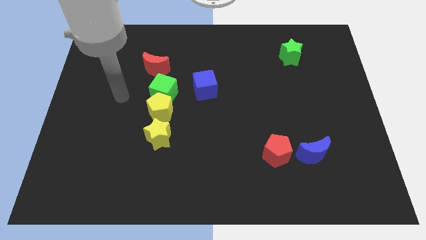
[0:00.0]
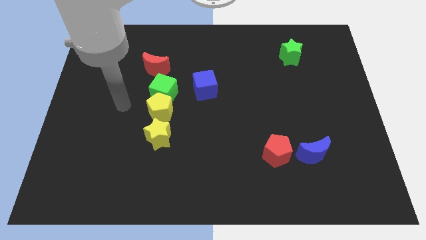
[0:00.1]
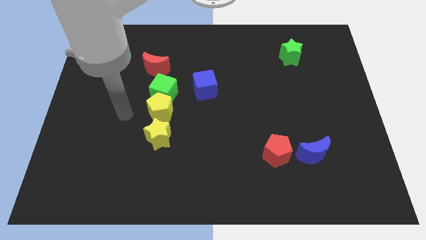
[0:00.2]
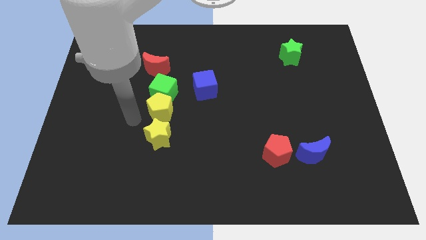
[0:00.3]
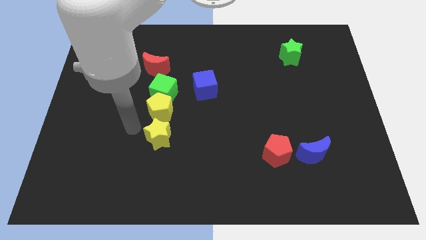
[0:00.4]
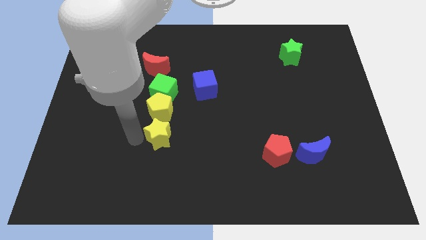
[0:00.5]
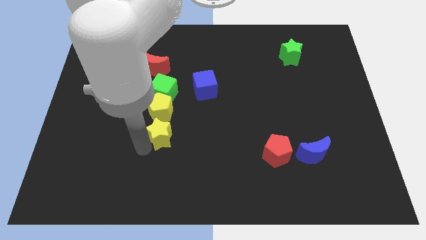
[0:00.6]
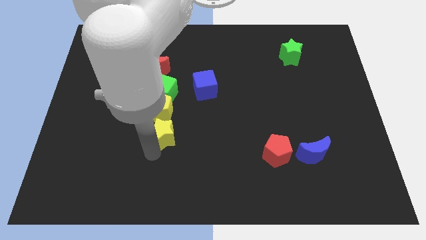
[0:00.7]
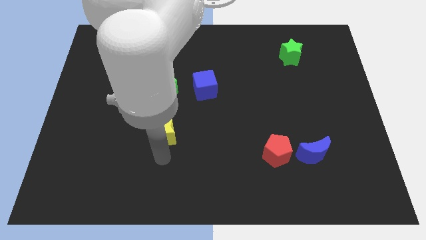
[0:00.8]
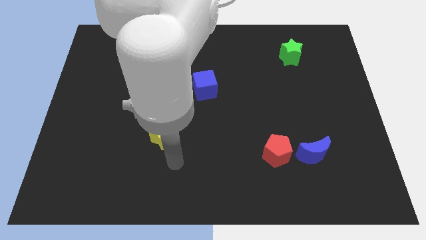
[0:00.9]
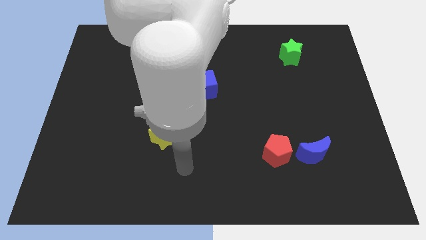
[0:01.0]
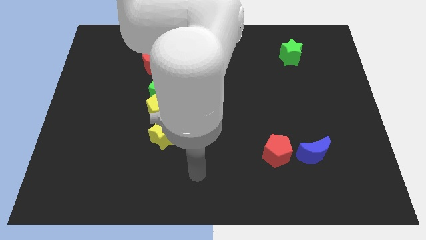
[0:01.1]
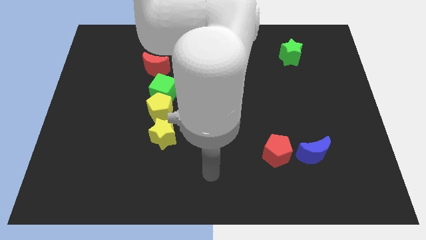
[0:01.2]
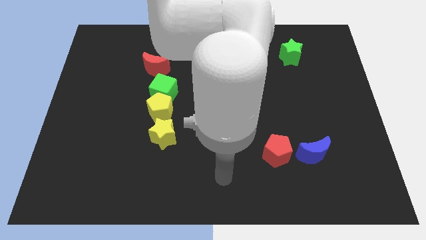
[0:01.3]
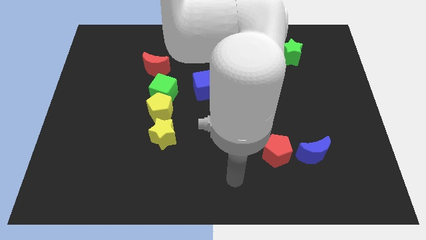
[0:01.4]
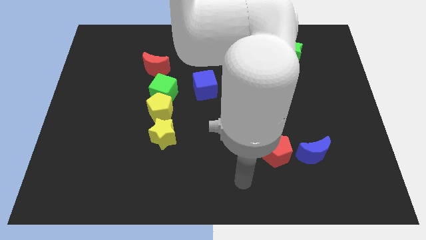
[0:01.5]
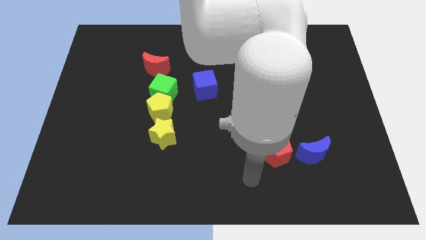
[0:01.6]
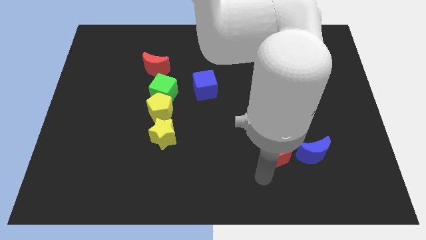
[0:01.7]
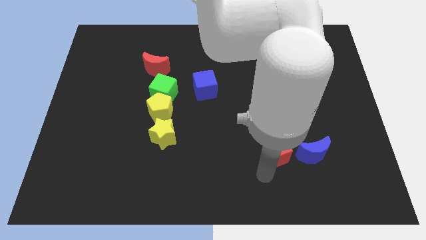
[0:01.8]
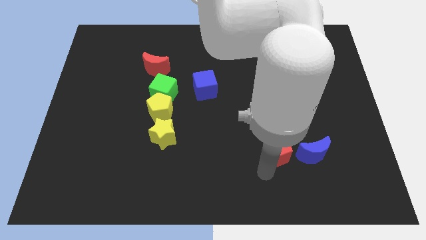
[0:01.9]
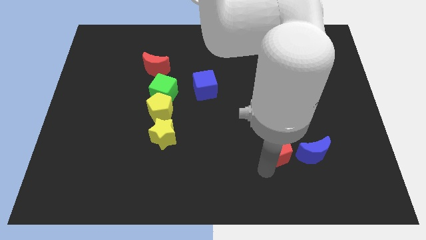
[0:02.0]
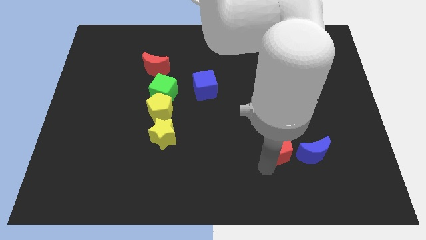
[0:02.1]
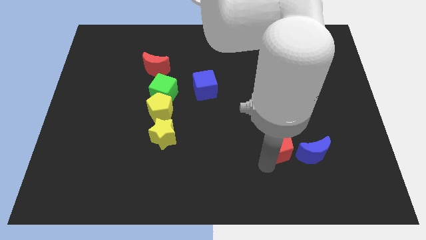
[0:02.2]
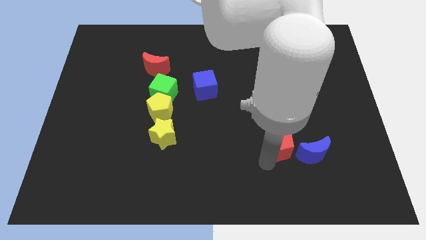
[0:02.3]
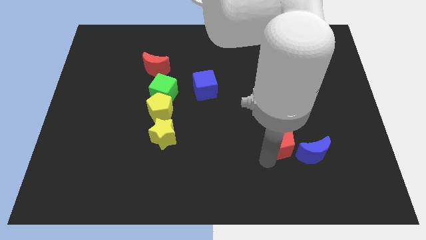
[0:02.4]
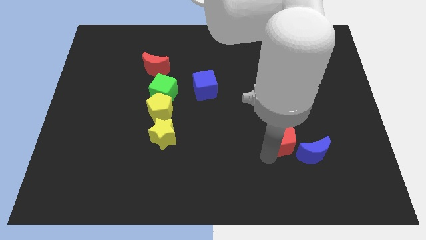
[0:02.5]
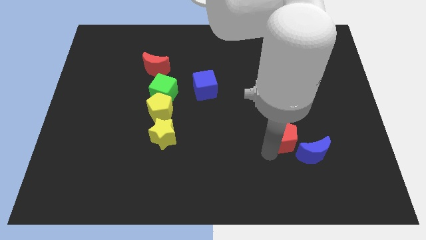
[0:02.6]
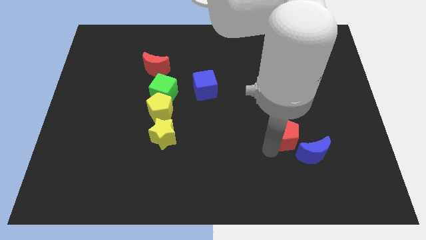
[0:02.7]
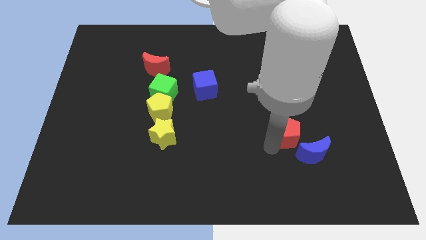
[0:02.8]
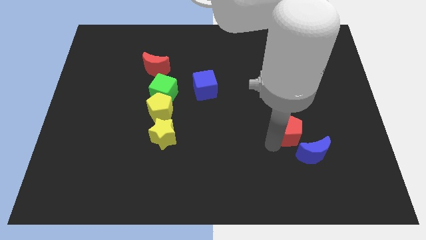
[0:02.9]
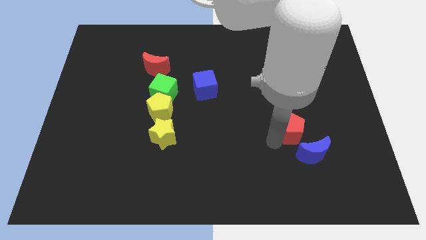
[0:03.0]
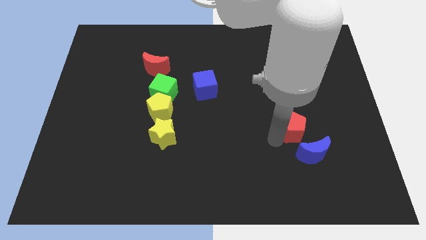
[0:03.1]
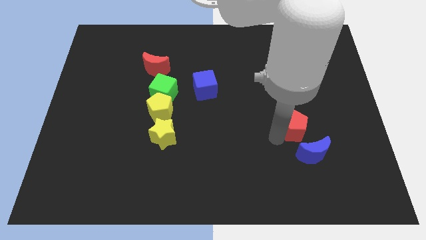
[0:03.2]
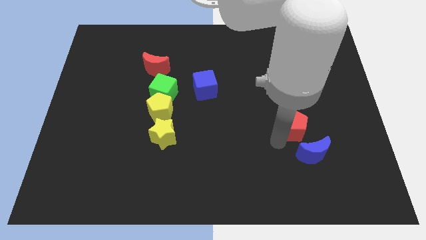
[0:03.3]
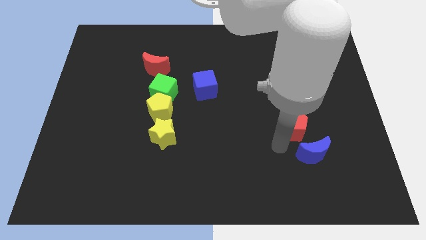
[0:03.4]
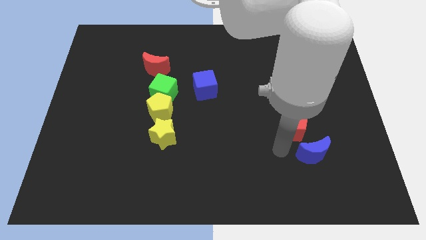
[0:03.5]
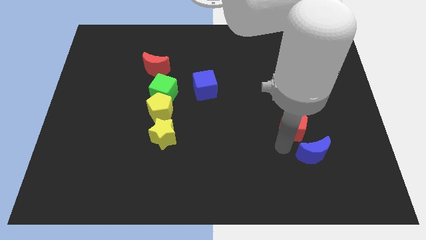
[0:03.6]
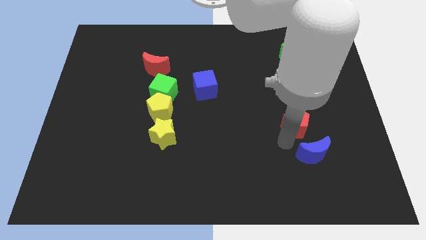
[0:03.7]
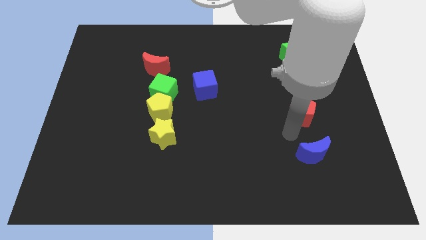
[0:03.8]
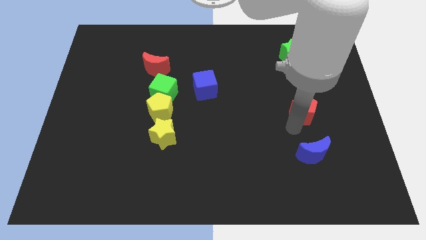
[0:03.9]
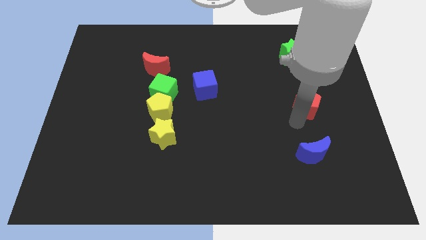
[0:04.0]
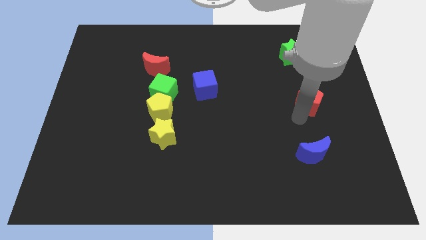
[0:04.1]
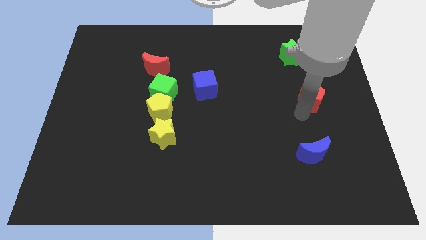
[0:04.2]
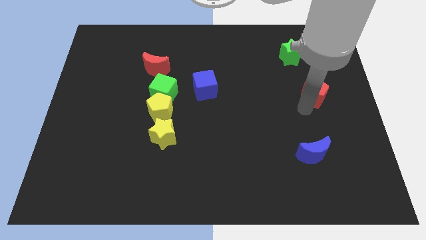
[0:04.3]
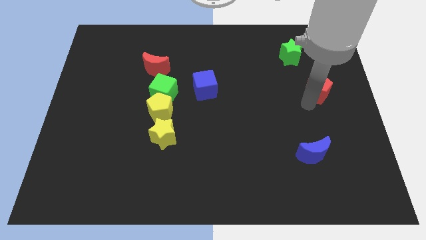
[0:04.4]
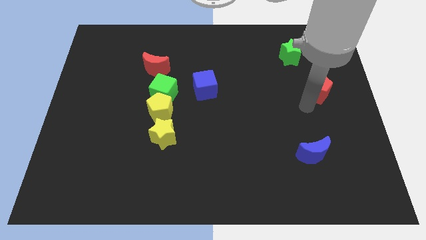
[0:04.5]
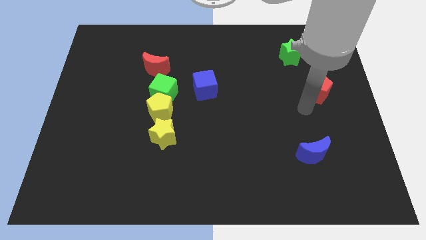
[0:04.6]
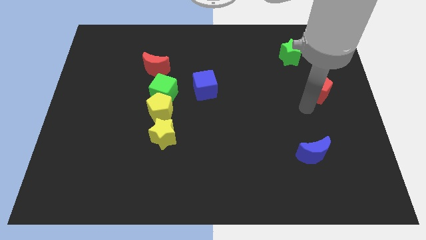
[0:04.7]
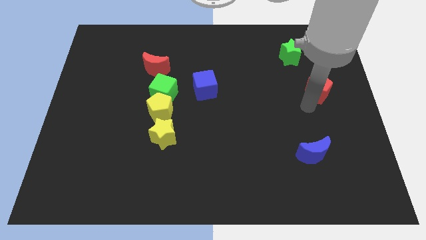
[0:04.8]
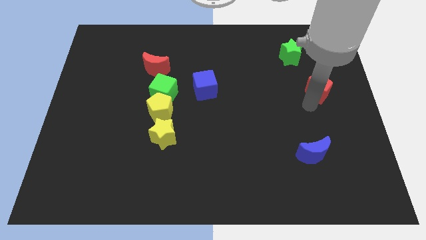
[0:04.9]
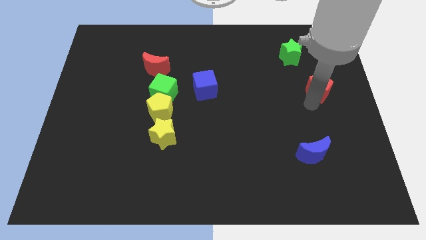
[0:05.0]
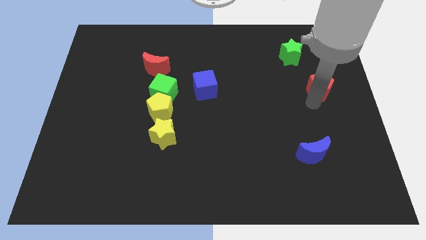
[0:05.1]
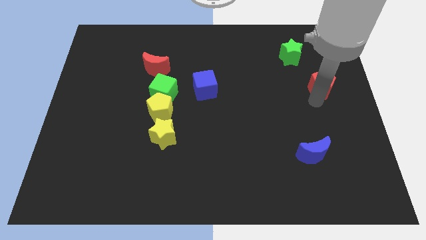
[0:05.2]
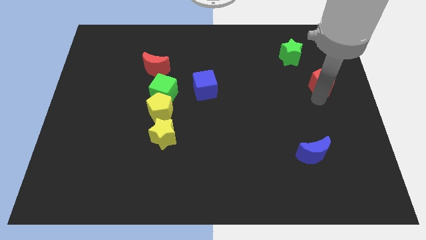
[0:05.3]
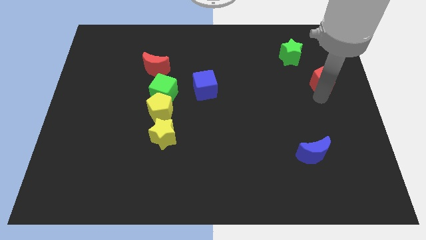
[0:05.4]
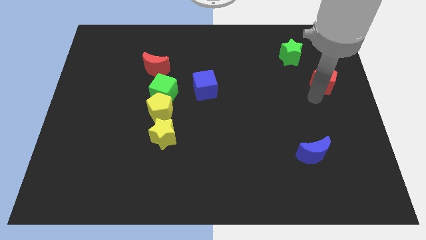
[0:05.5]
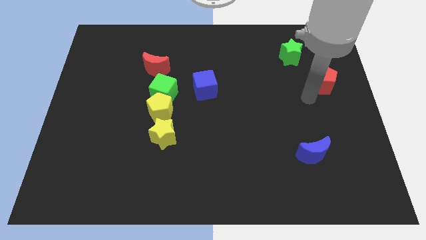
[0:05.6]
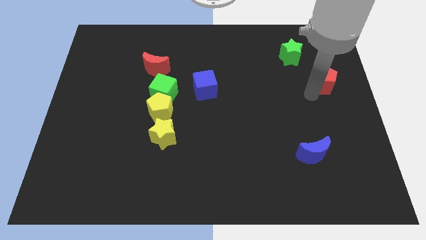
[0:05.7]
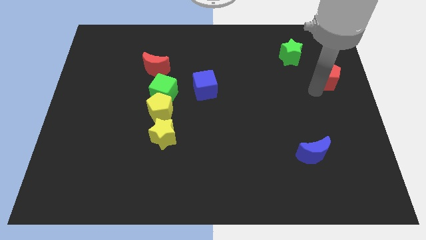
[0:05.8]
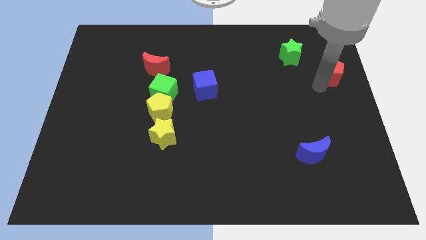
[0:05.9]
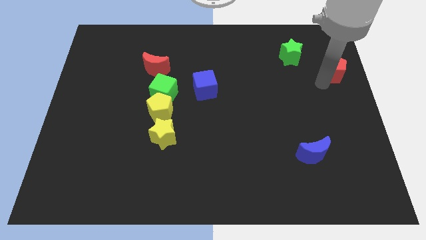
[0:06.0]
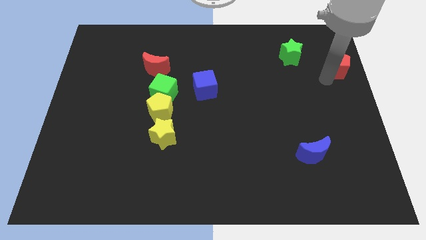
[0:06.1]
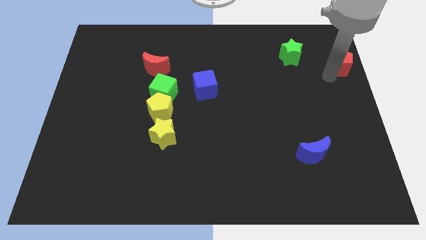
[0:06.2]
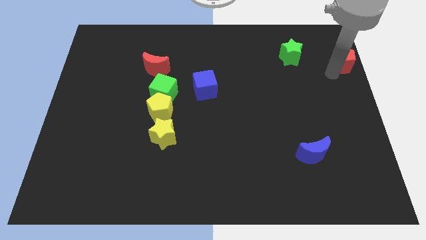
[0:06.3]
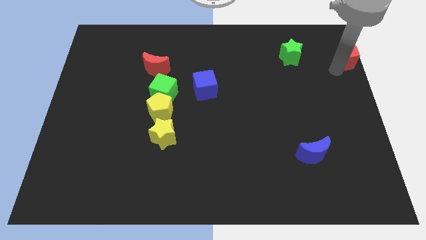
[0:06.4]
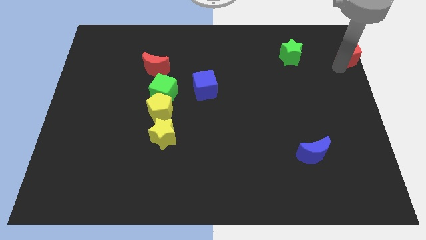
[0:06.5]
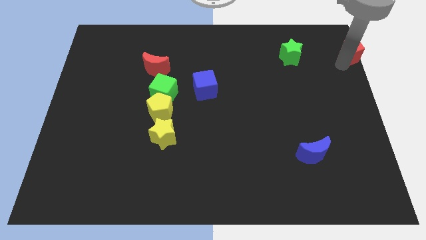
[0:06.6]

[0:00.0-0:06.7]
move the red pentagon to the upper right corner
